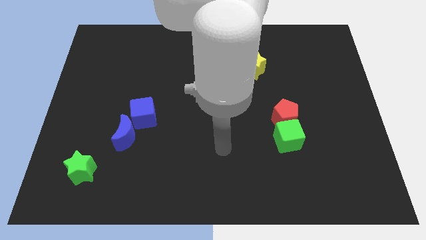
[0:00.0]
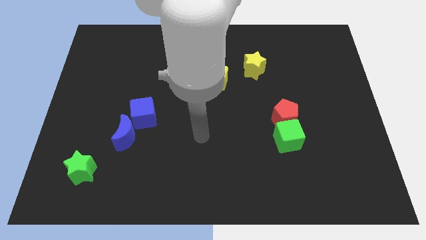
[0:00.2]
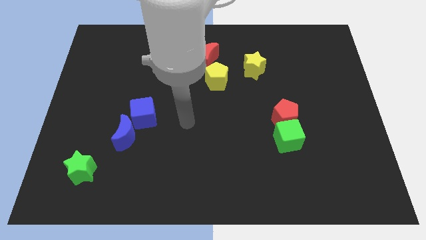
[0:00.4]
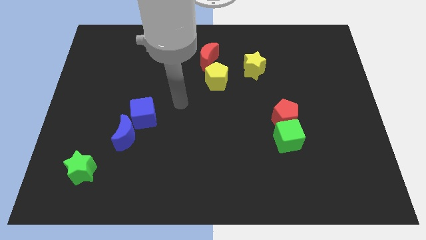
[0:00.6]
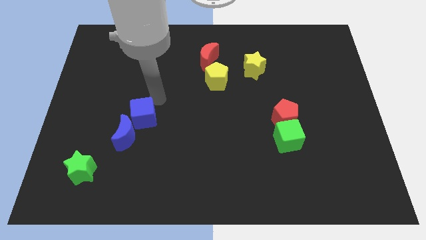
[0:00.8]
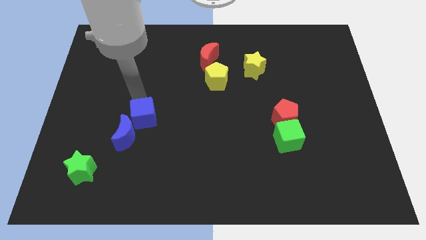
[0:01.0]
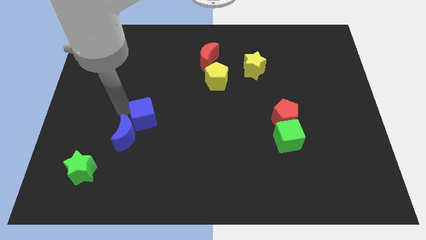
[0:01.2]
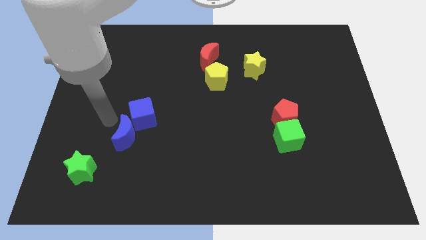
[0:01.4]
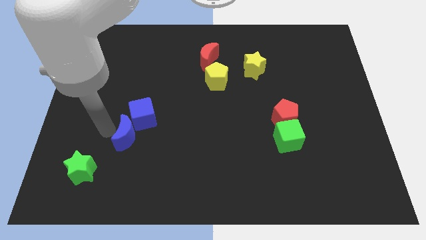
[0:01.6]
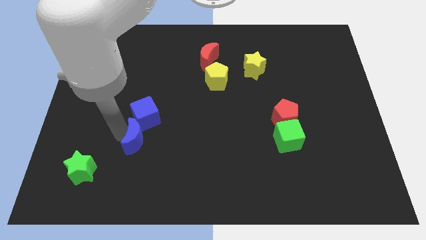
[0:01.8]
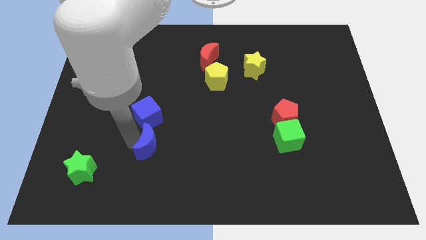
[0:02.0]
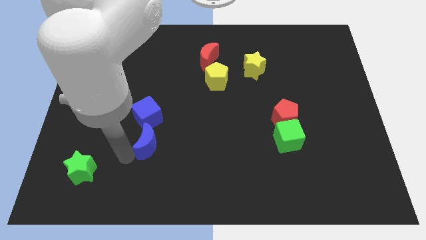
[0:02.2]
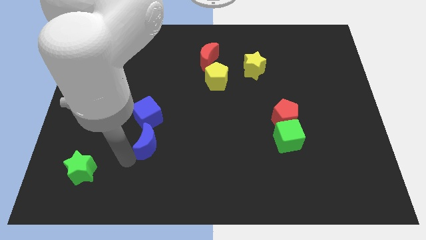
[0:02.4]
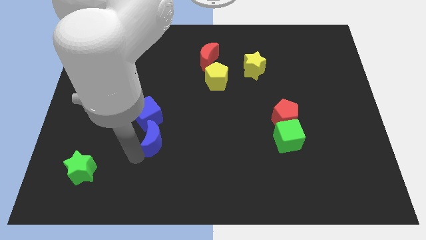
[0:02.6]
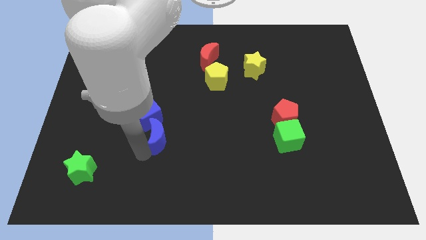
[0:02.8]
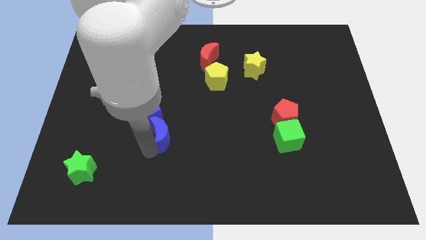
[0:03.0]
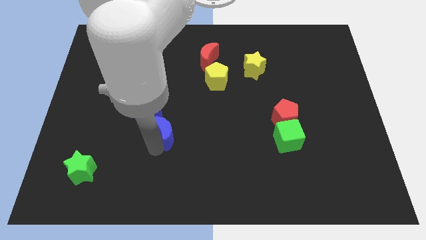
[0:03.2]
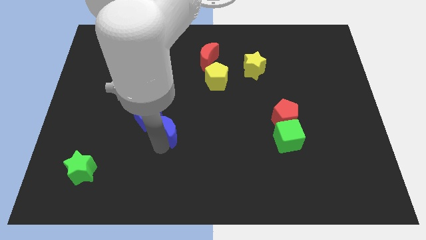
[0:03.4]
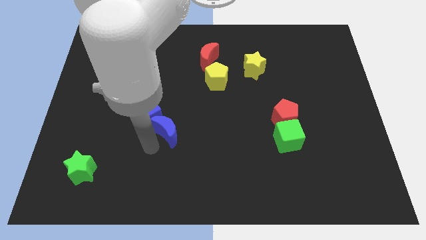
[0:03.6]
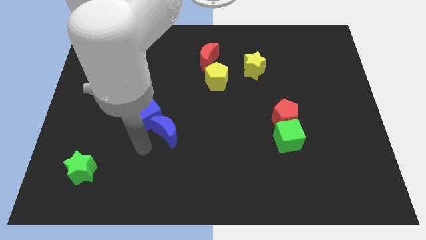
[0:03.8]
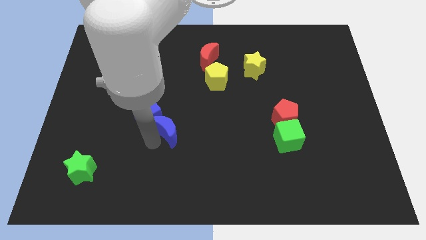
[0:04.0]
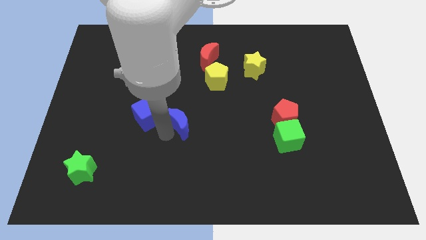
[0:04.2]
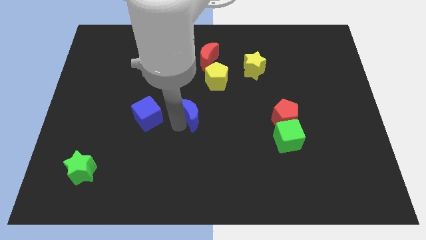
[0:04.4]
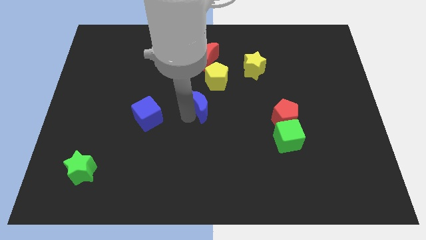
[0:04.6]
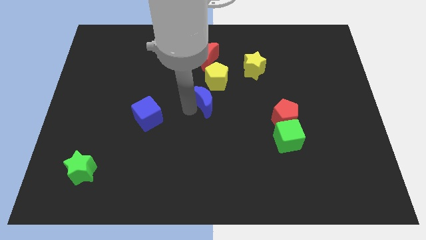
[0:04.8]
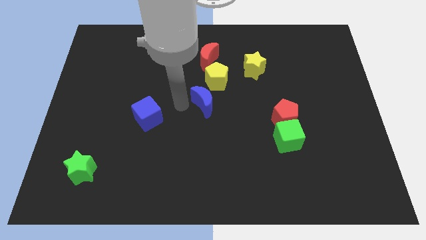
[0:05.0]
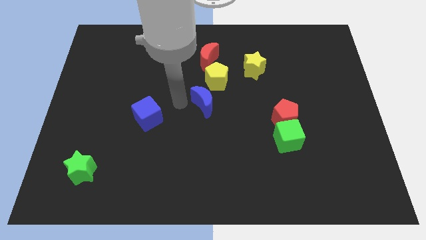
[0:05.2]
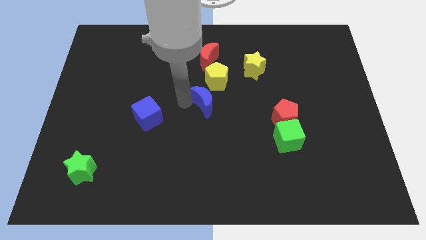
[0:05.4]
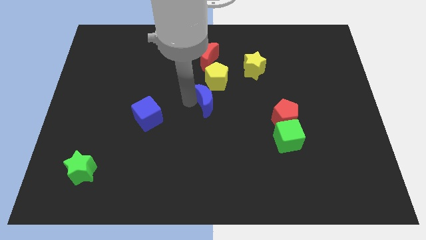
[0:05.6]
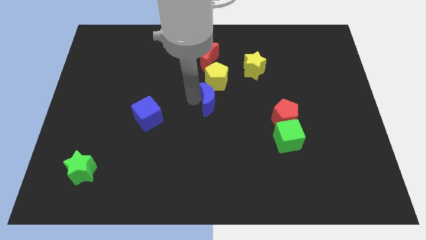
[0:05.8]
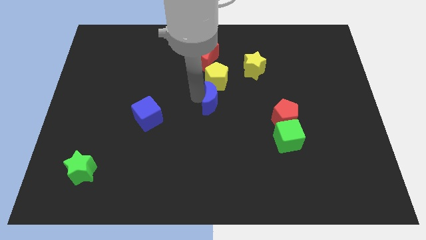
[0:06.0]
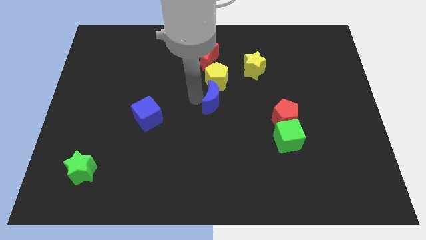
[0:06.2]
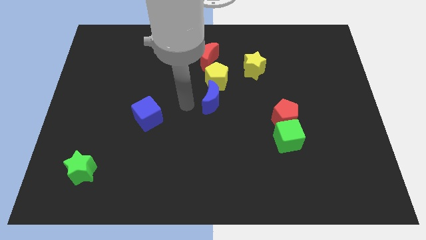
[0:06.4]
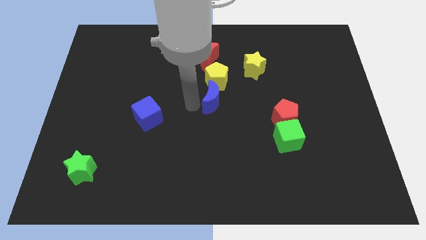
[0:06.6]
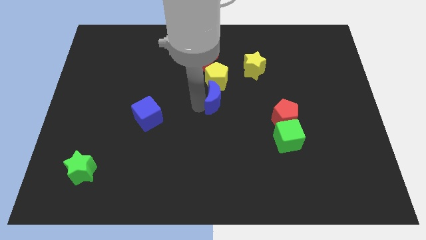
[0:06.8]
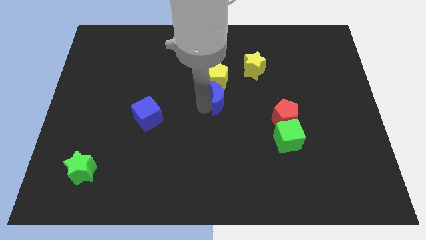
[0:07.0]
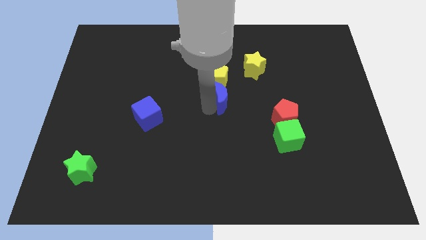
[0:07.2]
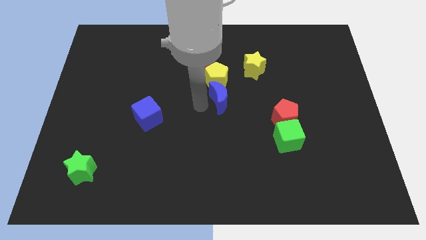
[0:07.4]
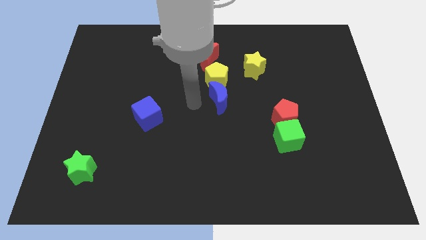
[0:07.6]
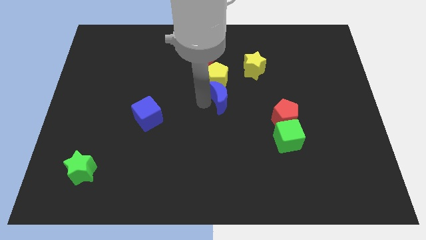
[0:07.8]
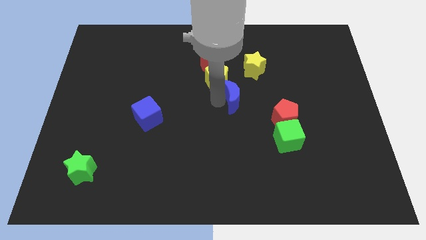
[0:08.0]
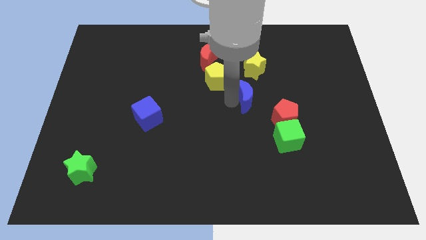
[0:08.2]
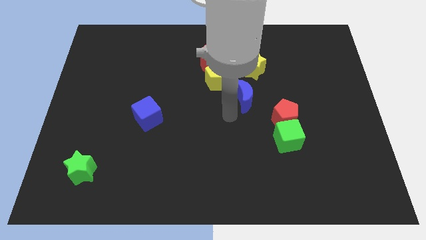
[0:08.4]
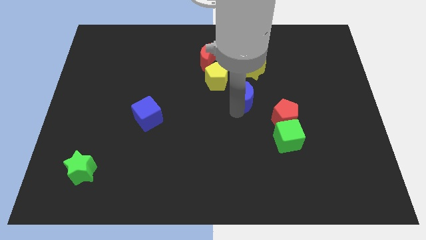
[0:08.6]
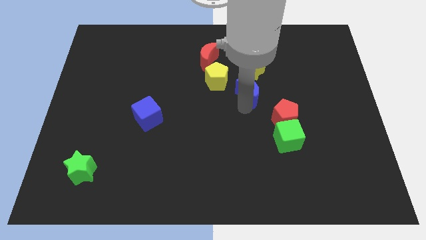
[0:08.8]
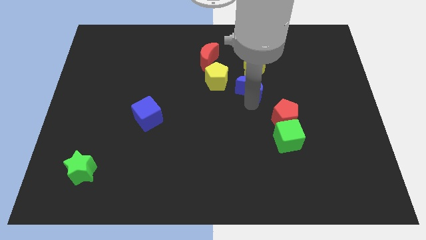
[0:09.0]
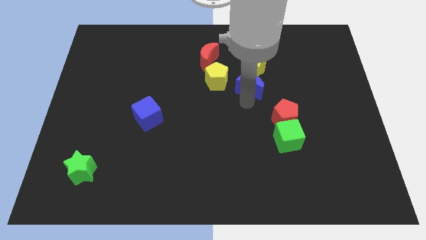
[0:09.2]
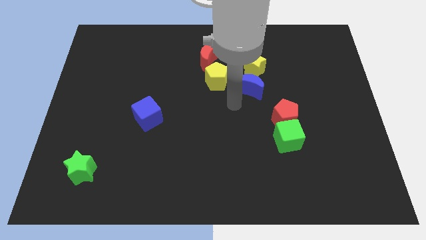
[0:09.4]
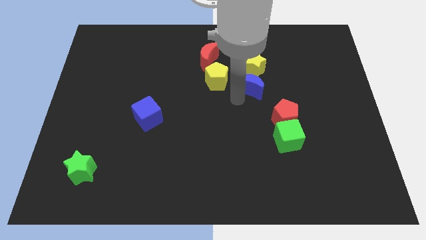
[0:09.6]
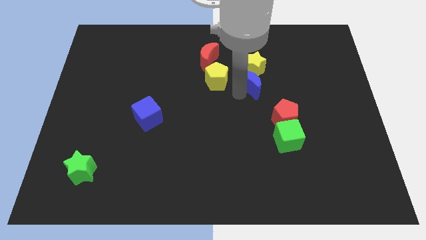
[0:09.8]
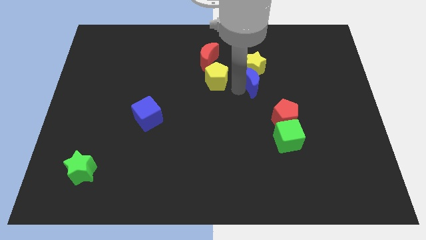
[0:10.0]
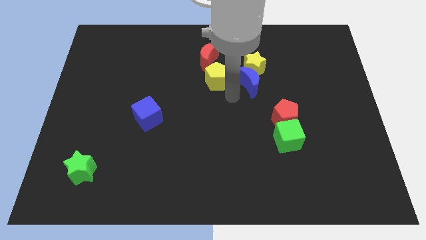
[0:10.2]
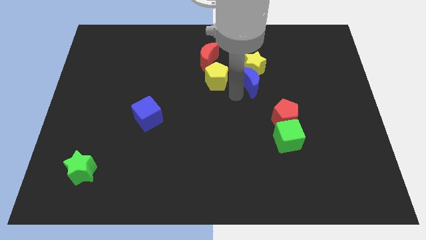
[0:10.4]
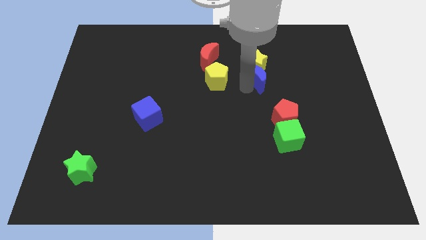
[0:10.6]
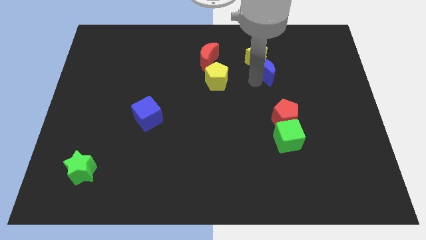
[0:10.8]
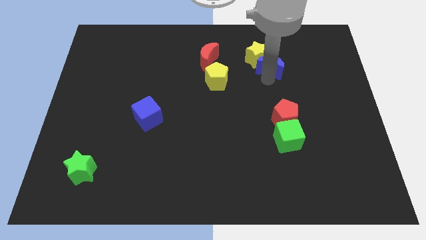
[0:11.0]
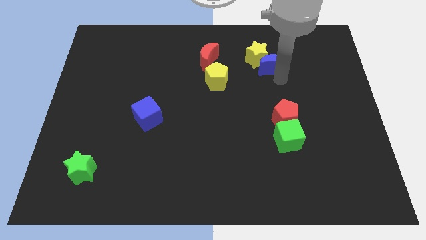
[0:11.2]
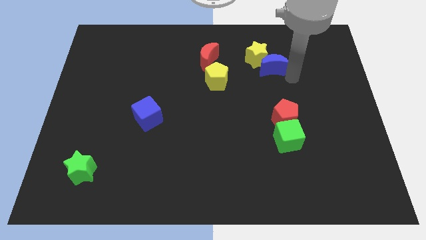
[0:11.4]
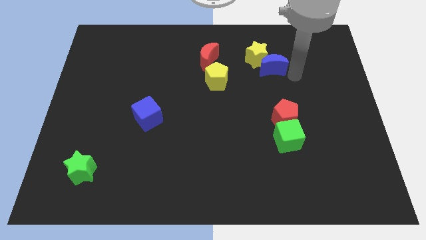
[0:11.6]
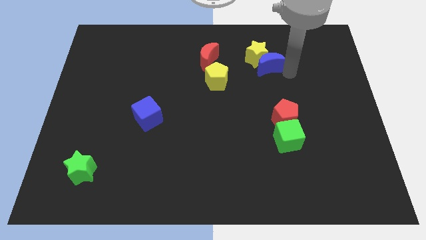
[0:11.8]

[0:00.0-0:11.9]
move the blue moon right of the red moon
